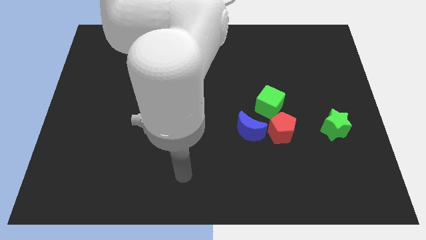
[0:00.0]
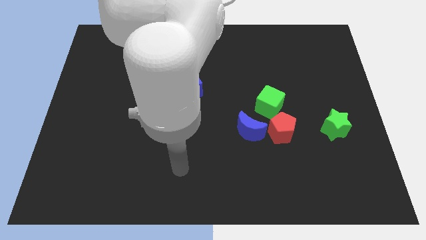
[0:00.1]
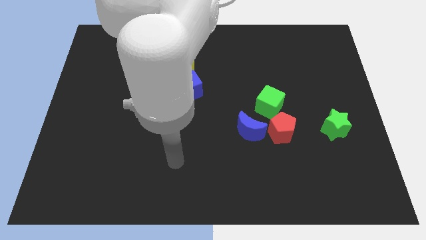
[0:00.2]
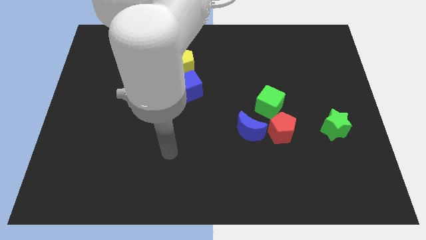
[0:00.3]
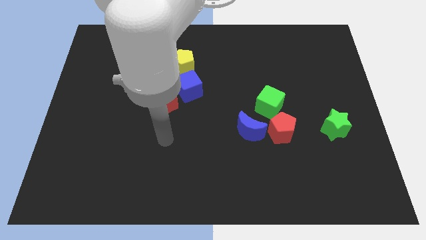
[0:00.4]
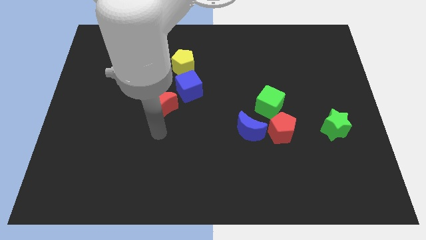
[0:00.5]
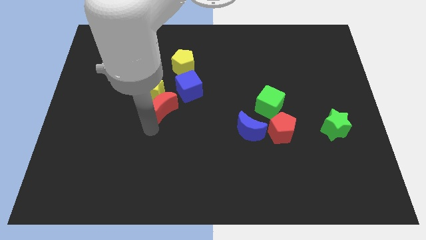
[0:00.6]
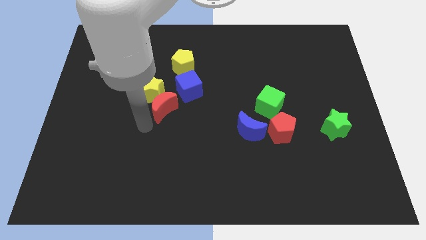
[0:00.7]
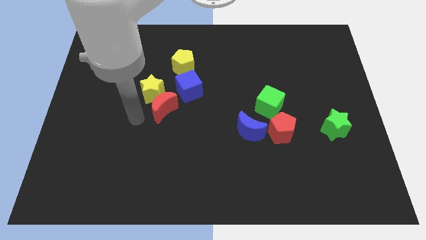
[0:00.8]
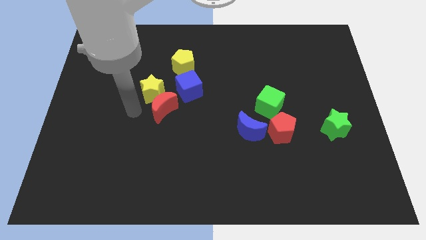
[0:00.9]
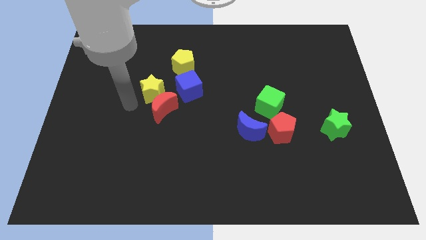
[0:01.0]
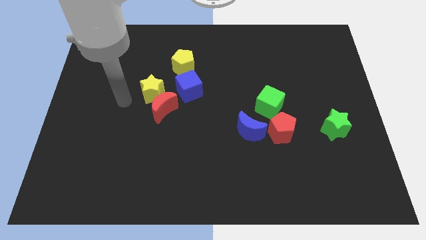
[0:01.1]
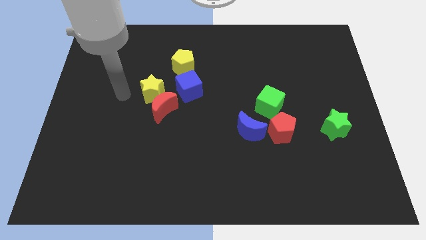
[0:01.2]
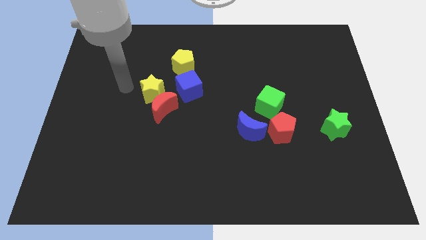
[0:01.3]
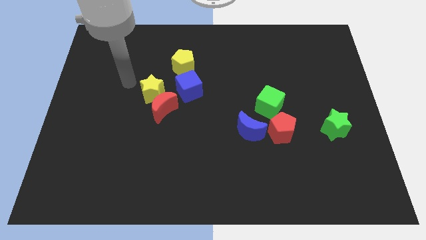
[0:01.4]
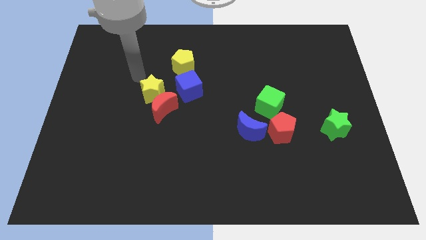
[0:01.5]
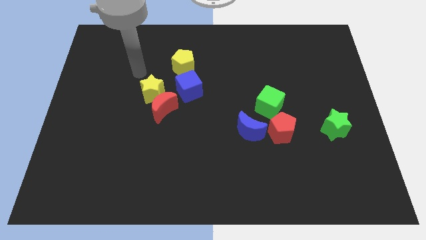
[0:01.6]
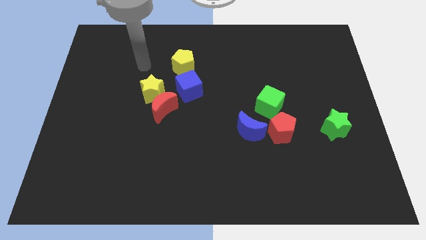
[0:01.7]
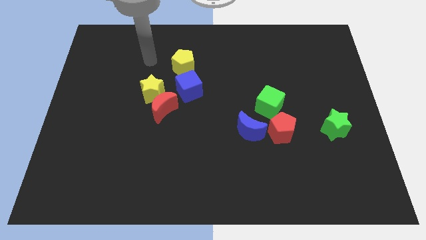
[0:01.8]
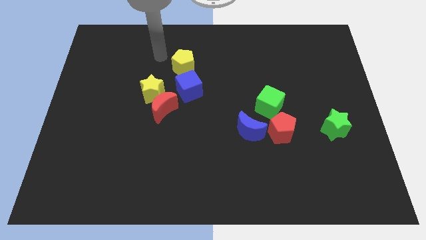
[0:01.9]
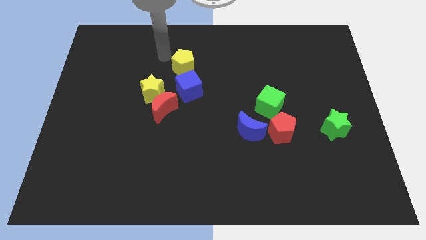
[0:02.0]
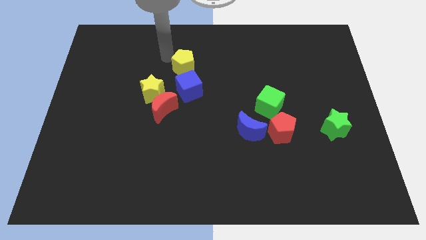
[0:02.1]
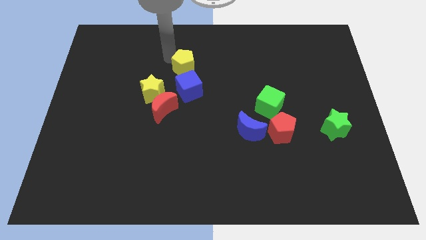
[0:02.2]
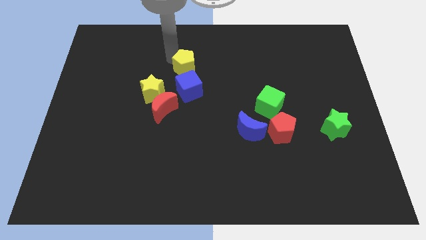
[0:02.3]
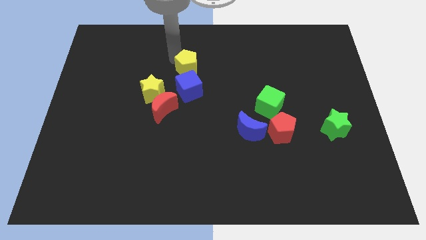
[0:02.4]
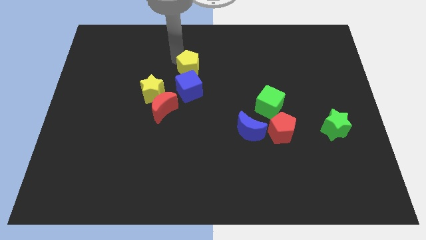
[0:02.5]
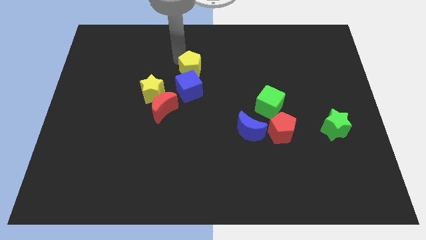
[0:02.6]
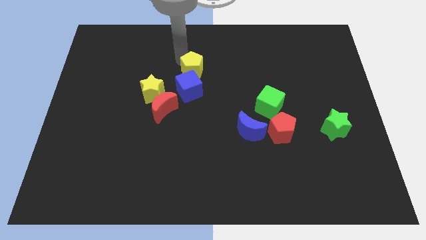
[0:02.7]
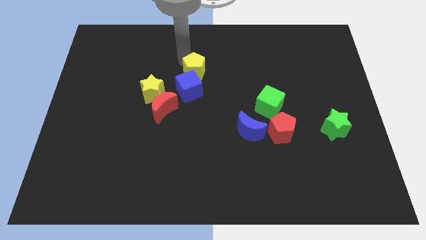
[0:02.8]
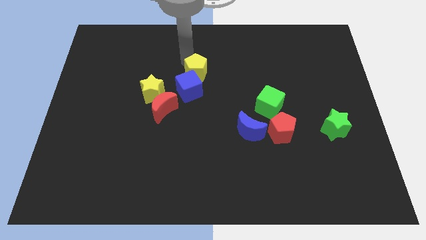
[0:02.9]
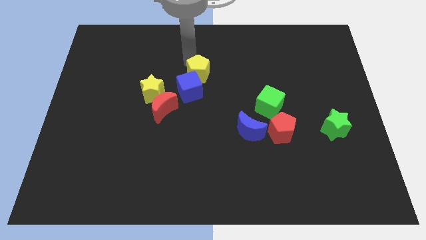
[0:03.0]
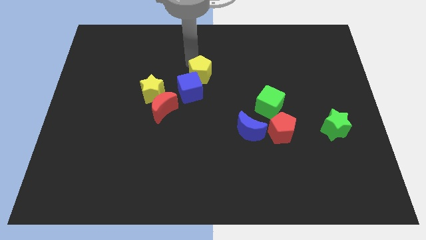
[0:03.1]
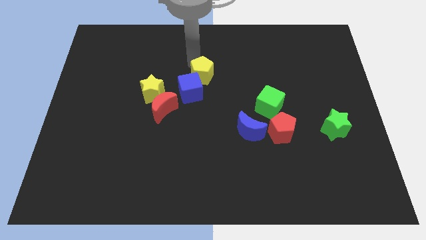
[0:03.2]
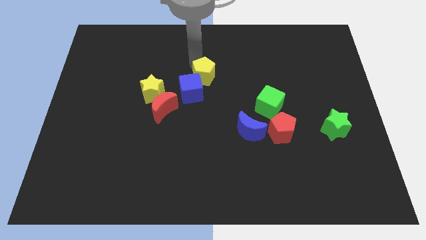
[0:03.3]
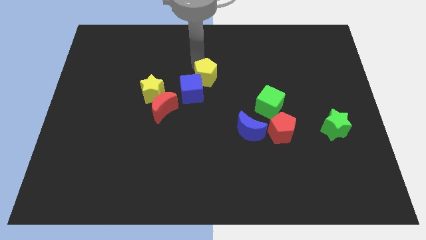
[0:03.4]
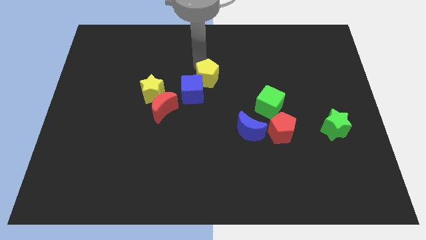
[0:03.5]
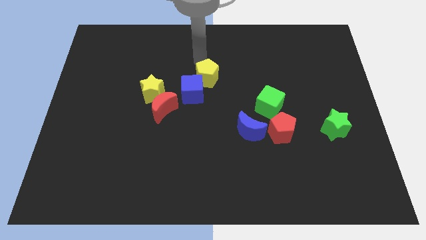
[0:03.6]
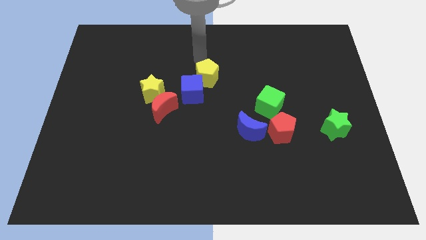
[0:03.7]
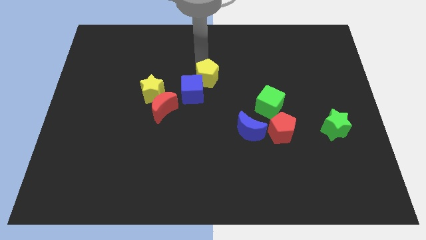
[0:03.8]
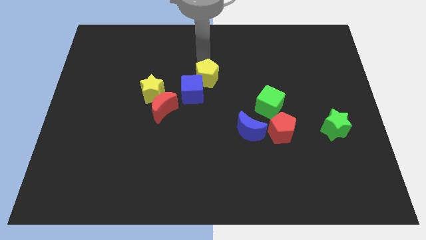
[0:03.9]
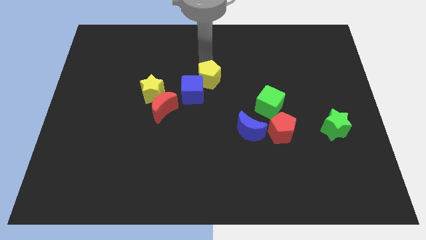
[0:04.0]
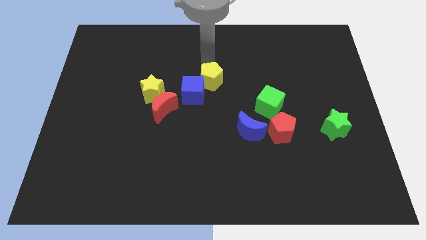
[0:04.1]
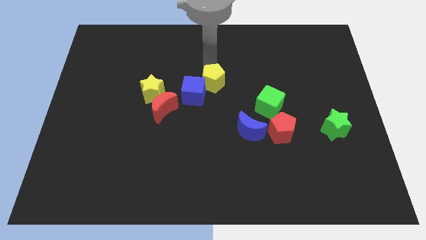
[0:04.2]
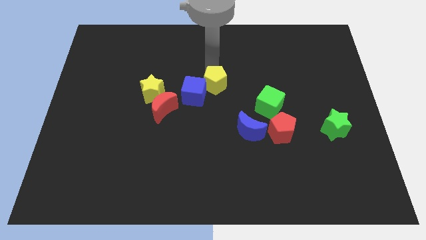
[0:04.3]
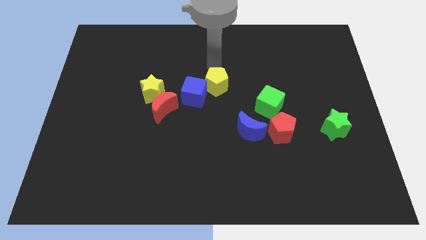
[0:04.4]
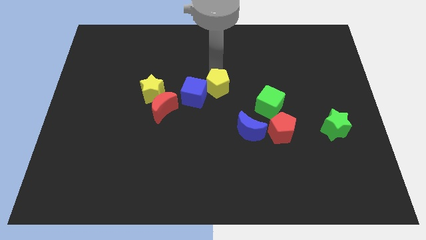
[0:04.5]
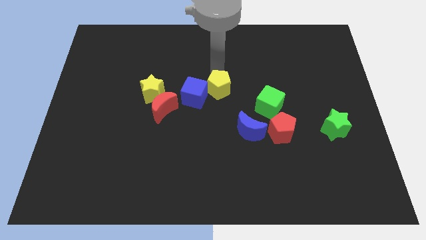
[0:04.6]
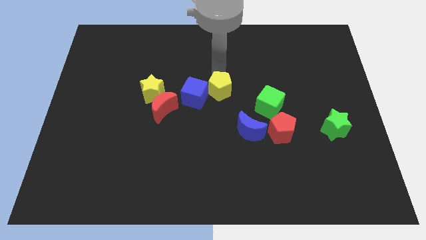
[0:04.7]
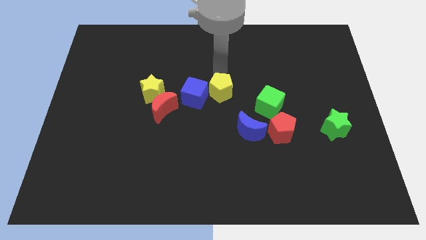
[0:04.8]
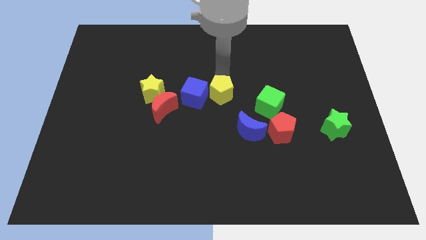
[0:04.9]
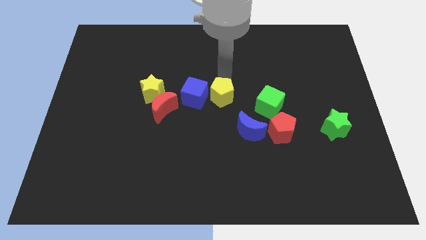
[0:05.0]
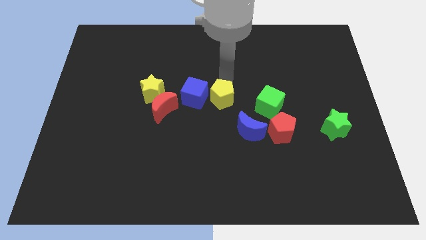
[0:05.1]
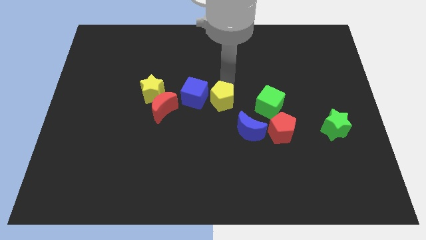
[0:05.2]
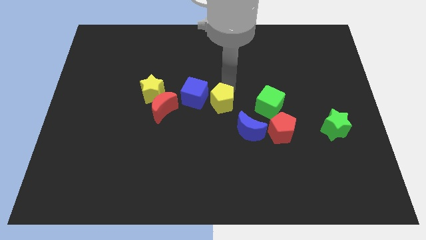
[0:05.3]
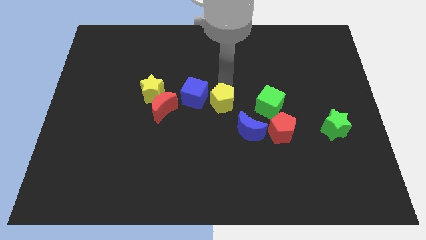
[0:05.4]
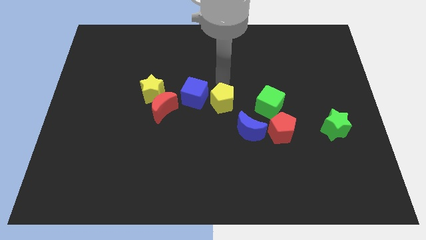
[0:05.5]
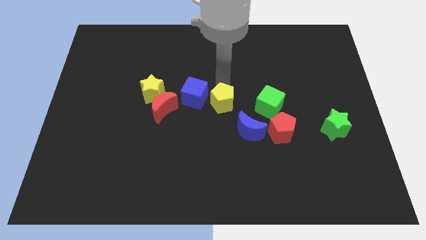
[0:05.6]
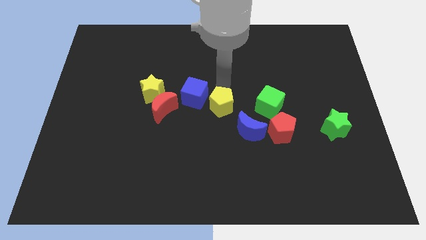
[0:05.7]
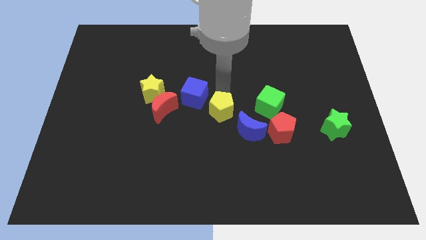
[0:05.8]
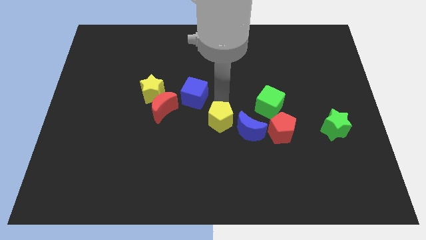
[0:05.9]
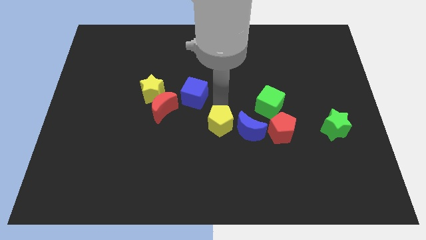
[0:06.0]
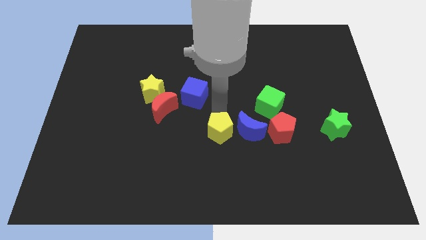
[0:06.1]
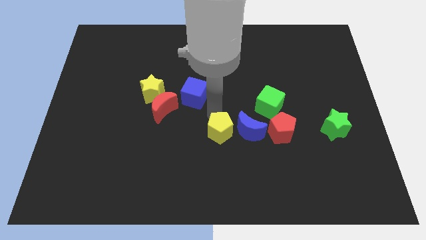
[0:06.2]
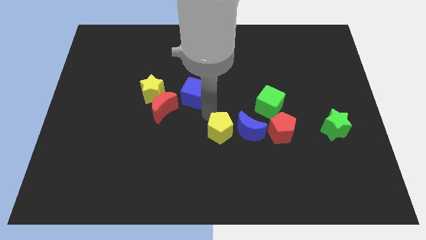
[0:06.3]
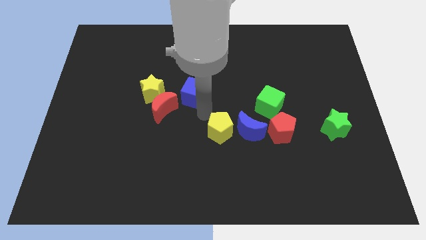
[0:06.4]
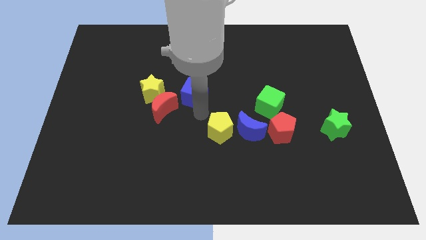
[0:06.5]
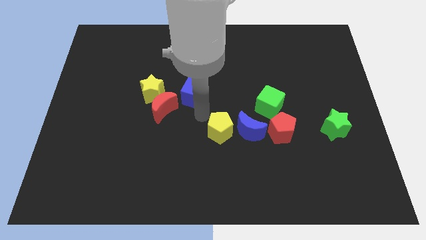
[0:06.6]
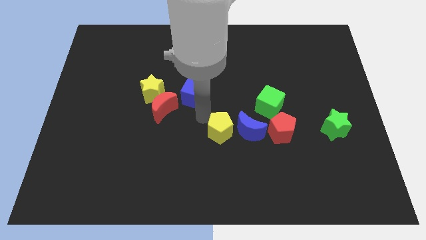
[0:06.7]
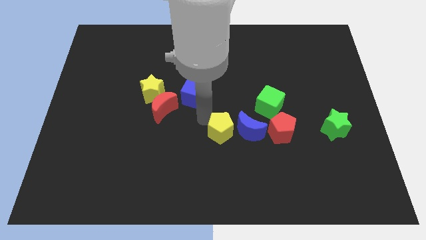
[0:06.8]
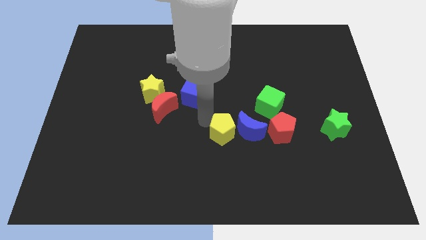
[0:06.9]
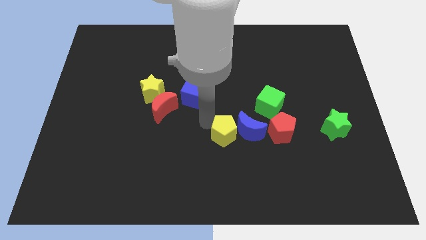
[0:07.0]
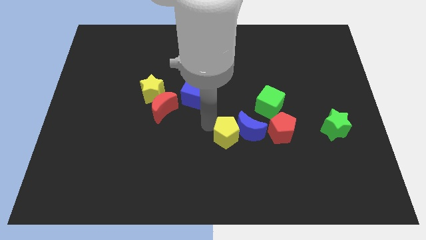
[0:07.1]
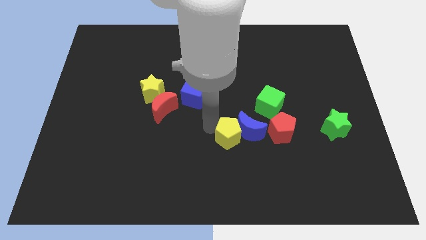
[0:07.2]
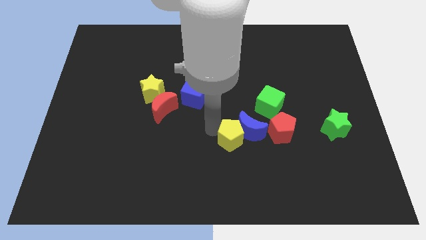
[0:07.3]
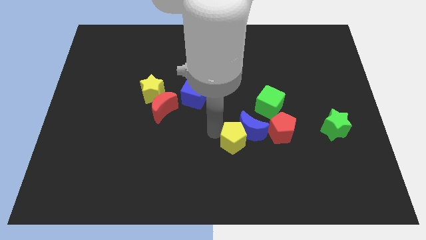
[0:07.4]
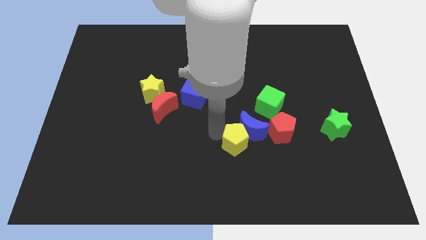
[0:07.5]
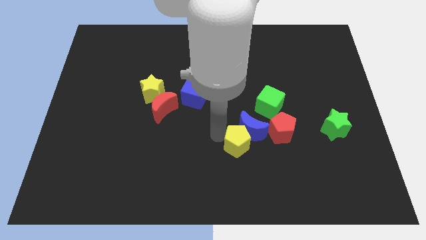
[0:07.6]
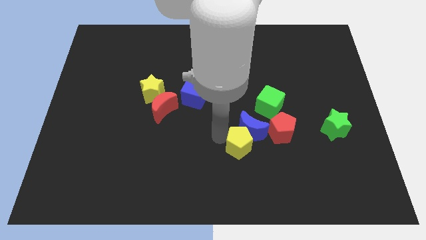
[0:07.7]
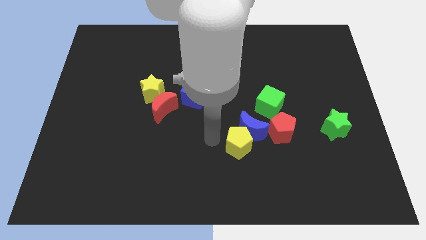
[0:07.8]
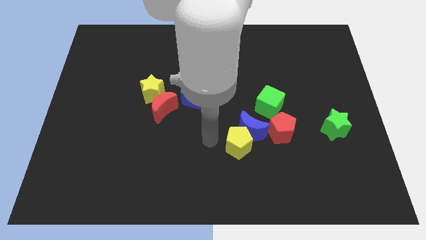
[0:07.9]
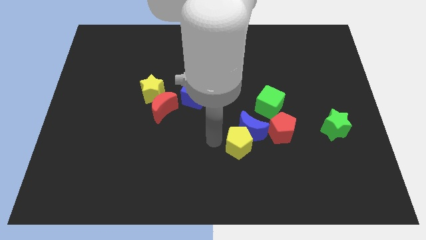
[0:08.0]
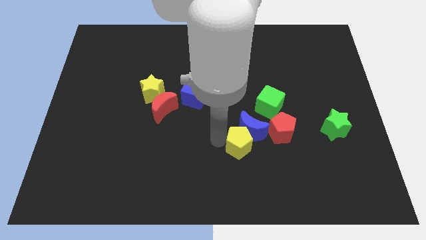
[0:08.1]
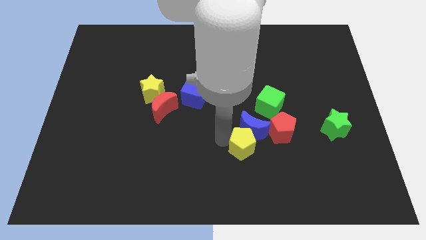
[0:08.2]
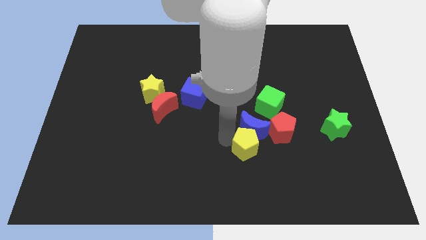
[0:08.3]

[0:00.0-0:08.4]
push the yellow pentagon diagonally down and to the right of the blue moon
